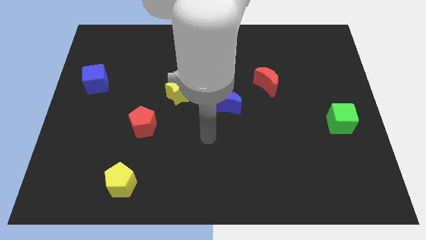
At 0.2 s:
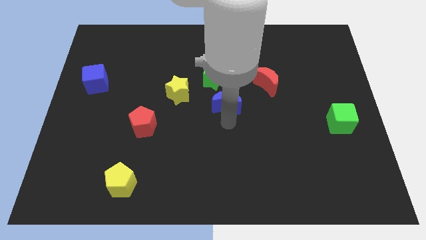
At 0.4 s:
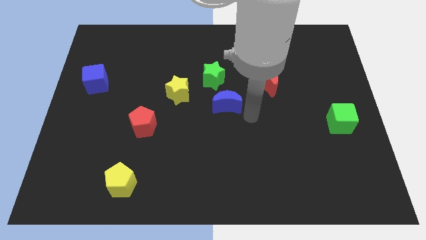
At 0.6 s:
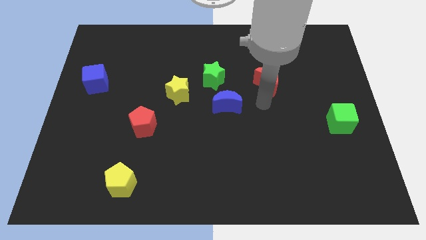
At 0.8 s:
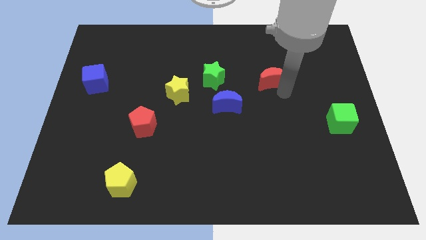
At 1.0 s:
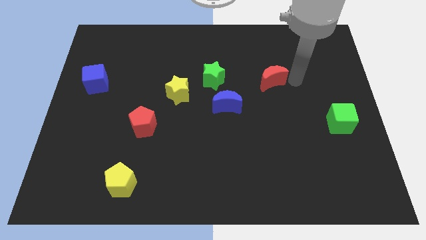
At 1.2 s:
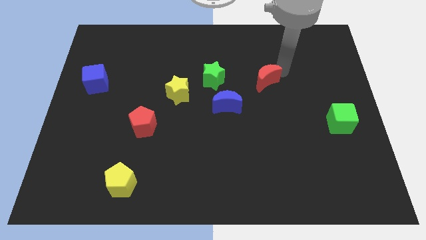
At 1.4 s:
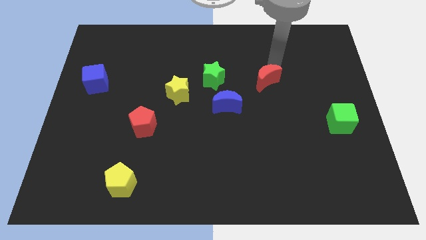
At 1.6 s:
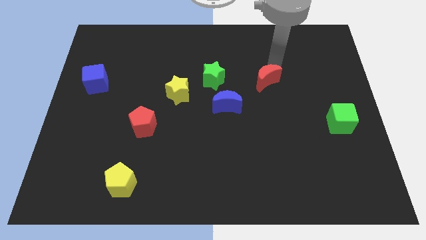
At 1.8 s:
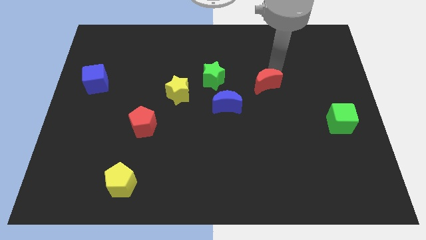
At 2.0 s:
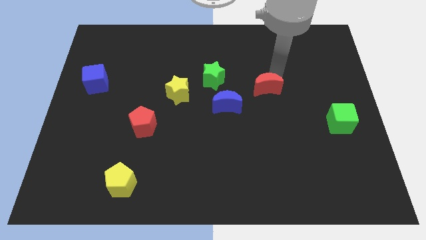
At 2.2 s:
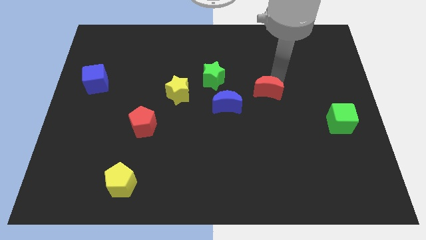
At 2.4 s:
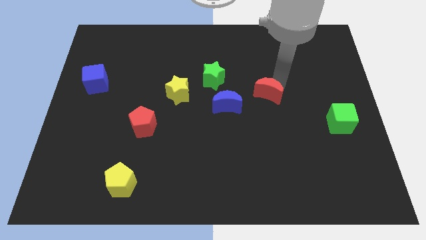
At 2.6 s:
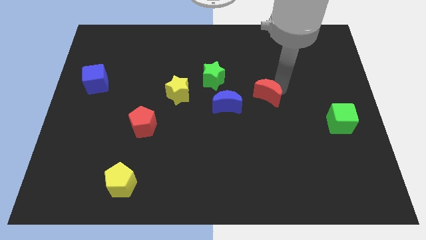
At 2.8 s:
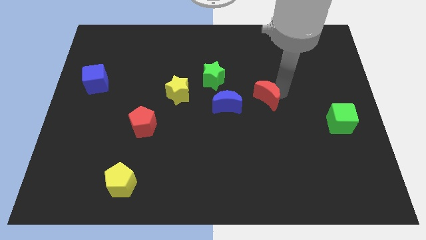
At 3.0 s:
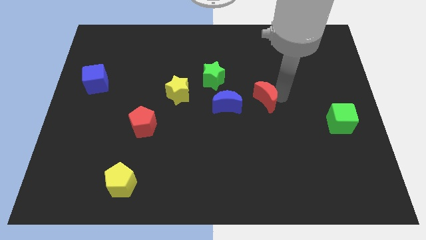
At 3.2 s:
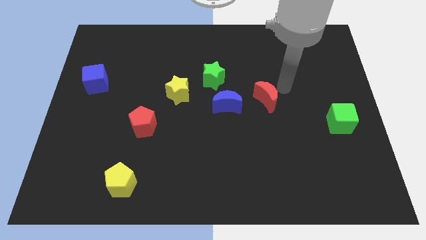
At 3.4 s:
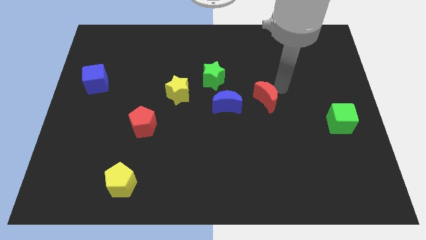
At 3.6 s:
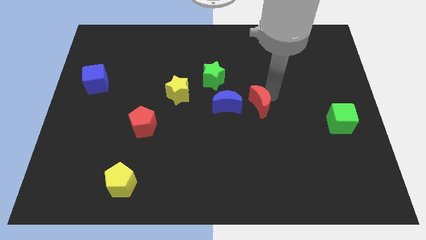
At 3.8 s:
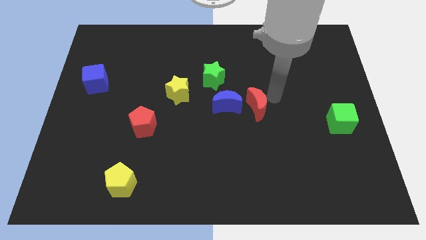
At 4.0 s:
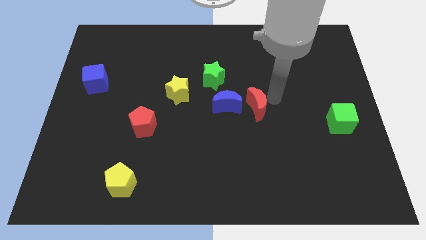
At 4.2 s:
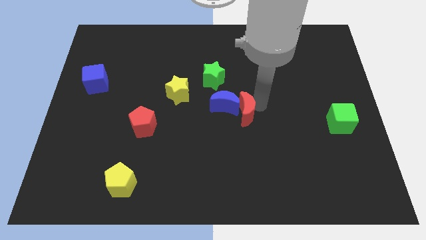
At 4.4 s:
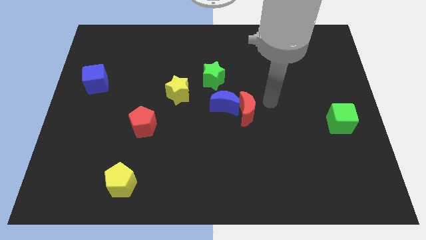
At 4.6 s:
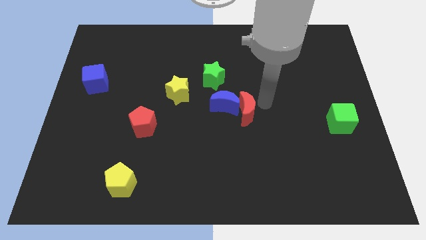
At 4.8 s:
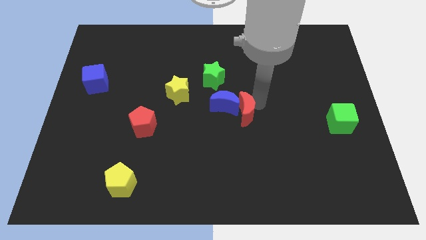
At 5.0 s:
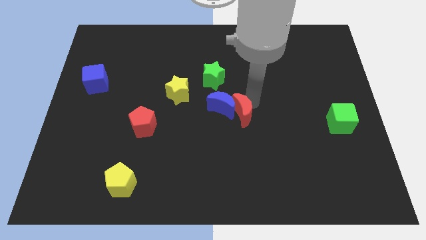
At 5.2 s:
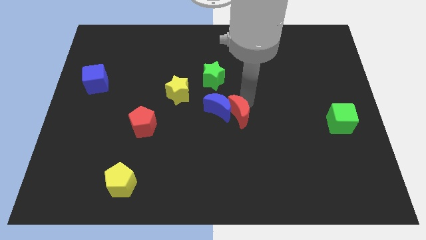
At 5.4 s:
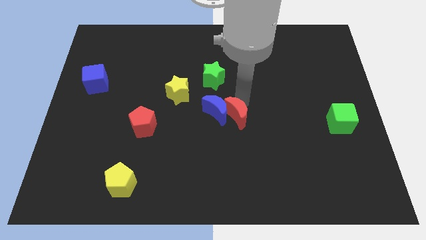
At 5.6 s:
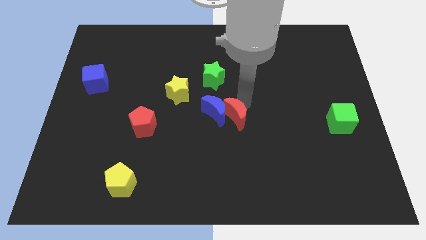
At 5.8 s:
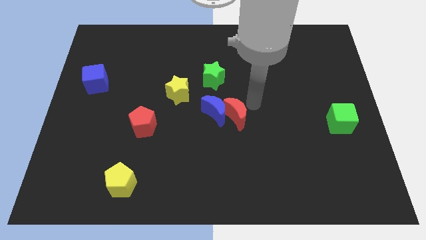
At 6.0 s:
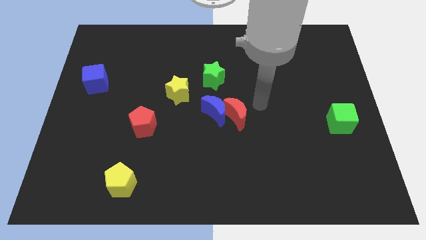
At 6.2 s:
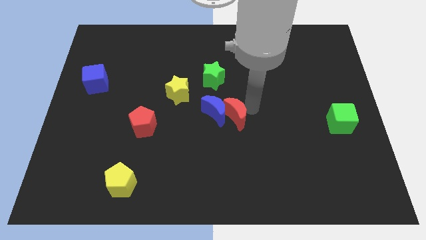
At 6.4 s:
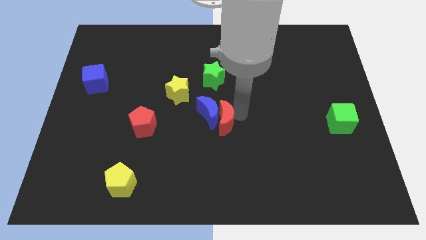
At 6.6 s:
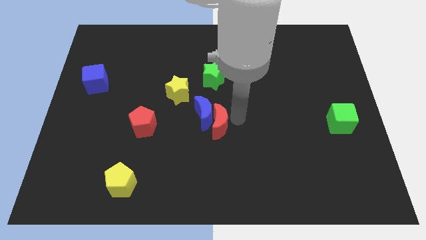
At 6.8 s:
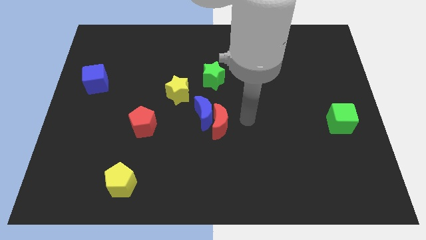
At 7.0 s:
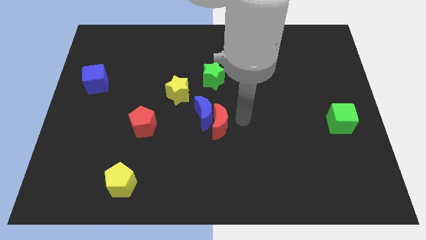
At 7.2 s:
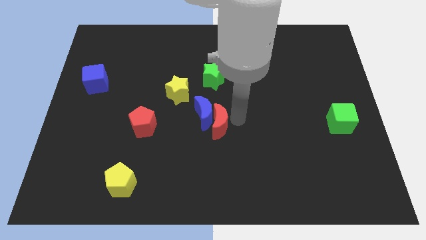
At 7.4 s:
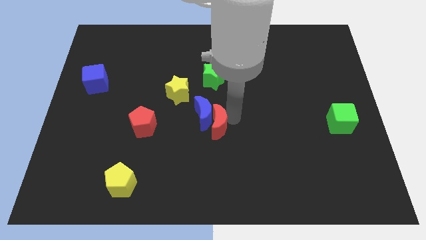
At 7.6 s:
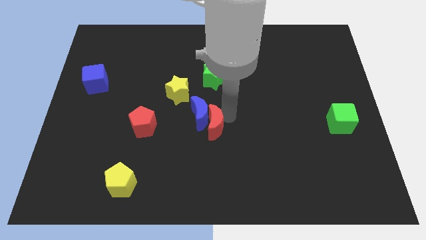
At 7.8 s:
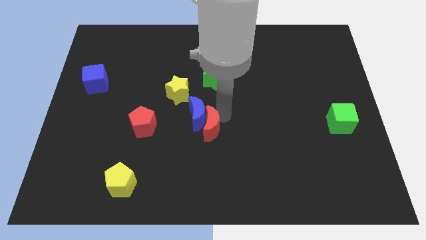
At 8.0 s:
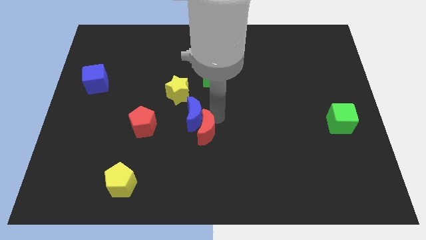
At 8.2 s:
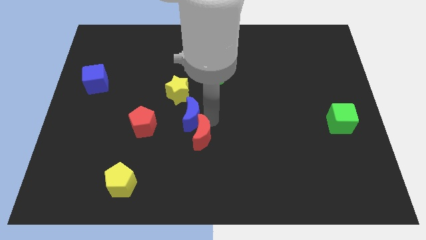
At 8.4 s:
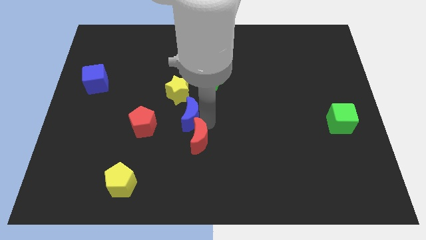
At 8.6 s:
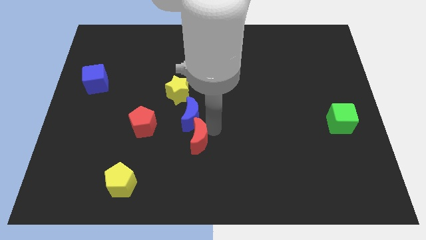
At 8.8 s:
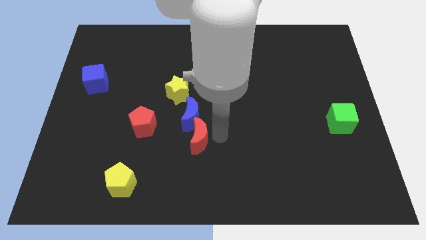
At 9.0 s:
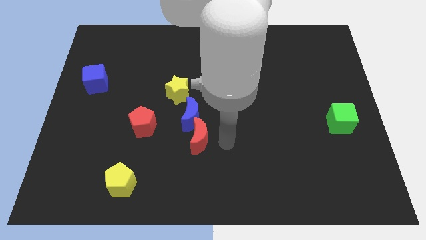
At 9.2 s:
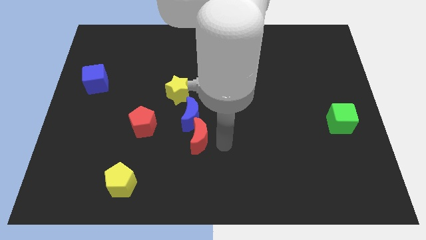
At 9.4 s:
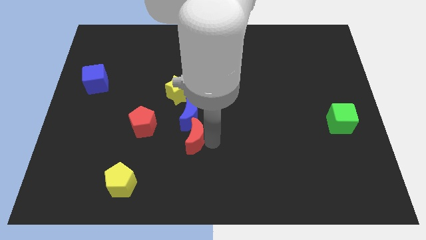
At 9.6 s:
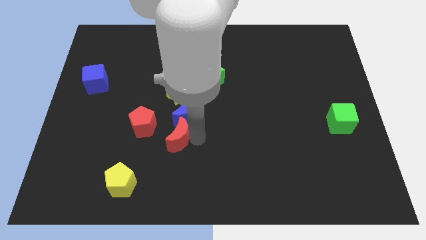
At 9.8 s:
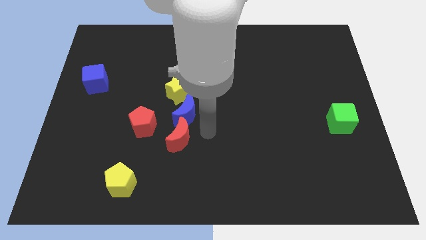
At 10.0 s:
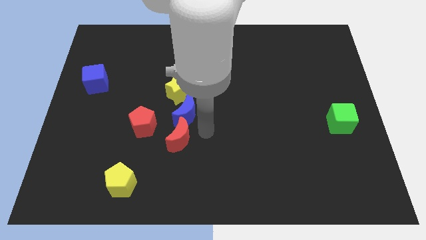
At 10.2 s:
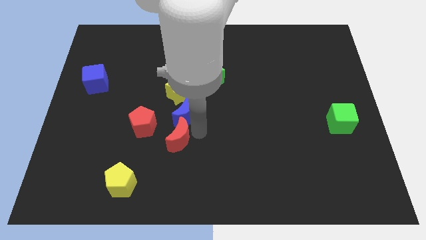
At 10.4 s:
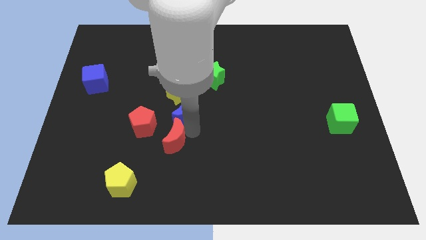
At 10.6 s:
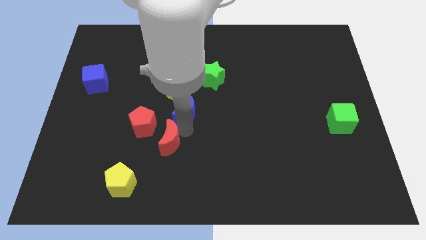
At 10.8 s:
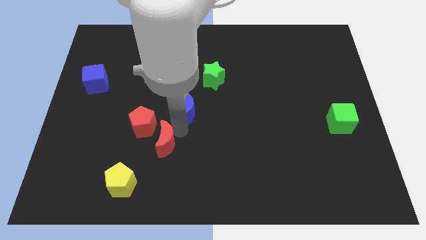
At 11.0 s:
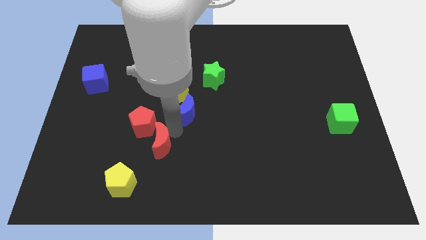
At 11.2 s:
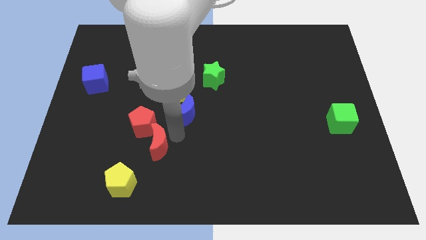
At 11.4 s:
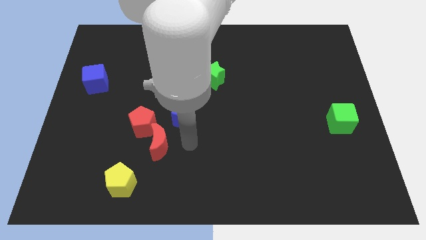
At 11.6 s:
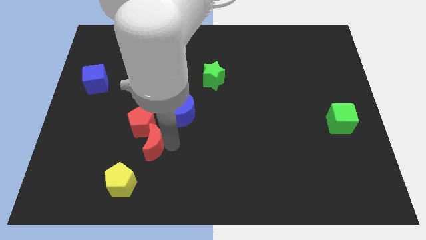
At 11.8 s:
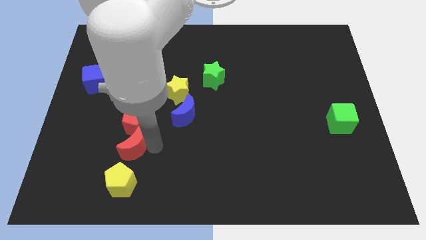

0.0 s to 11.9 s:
push the red moon diagonally down and to the left of the red pentagon

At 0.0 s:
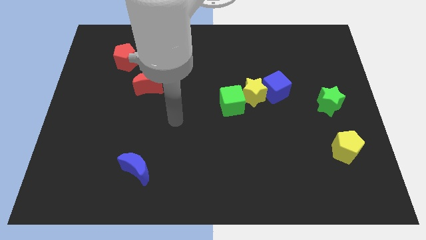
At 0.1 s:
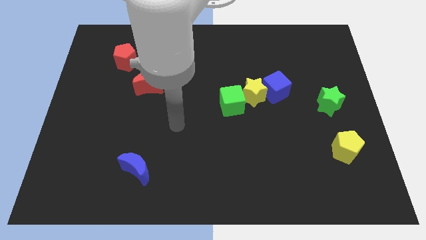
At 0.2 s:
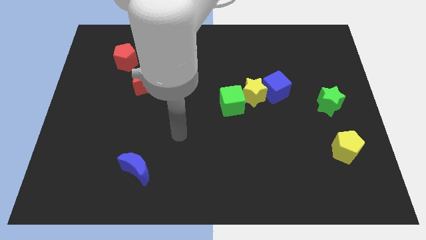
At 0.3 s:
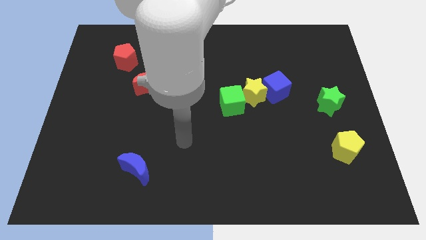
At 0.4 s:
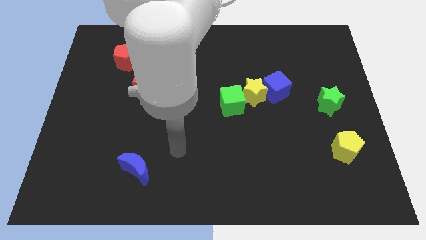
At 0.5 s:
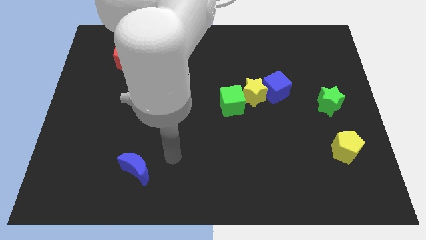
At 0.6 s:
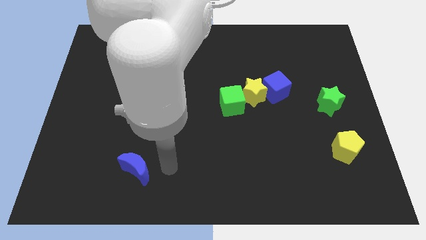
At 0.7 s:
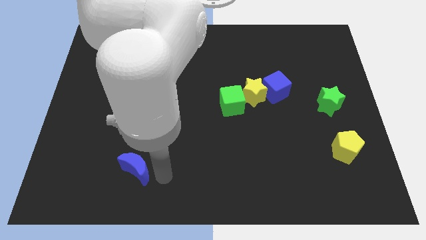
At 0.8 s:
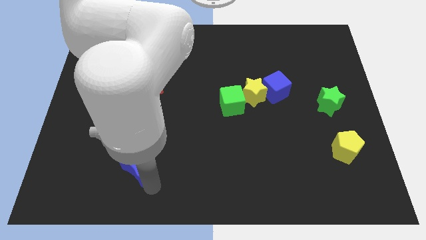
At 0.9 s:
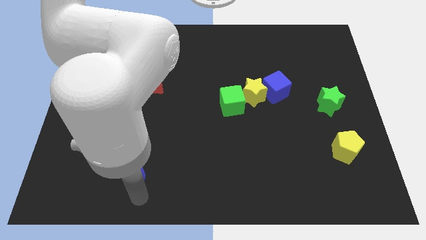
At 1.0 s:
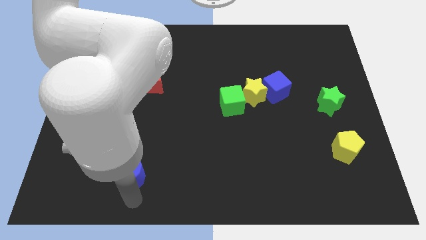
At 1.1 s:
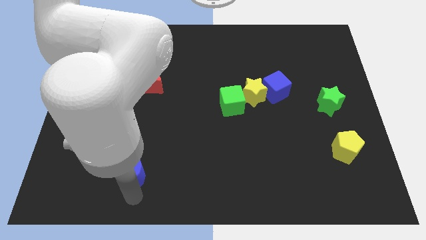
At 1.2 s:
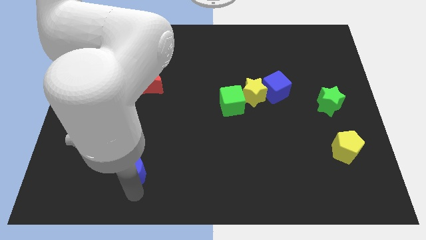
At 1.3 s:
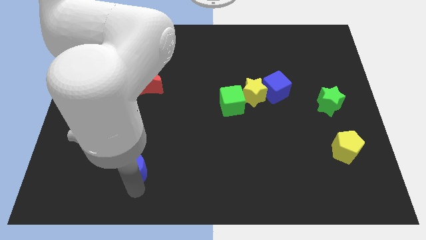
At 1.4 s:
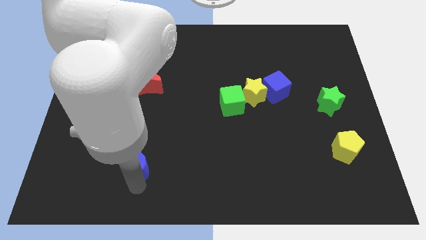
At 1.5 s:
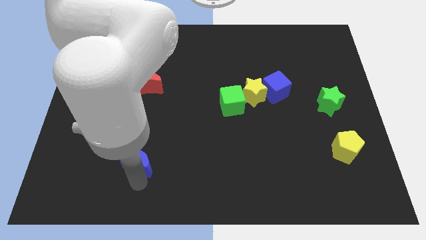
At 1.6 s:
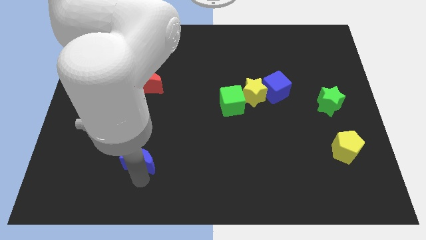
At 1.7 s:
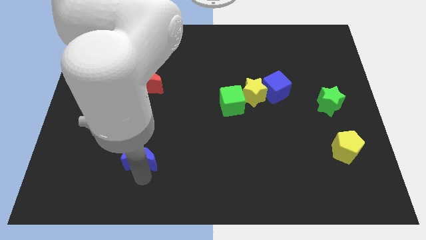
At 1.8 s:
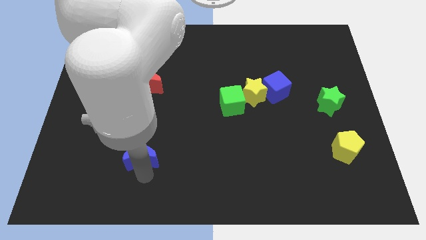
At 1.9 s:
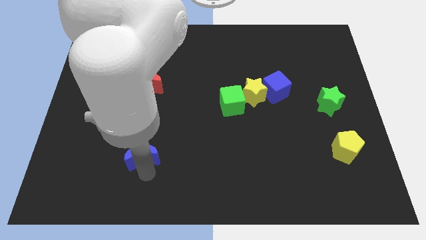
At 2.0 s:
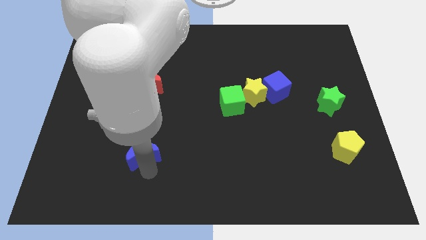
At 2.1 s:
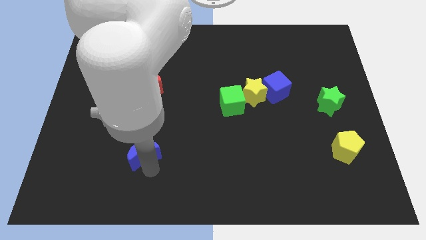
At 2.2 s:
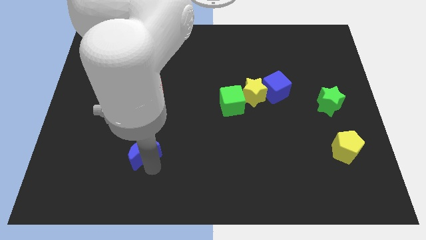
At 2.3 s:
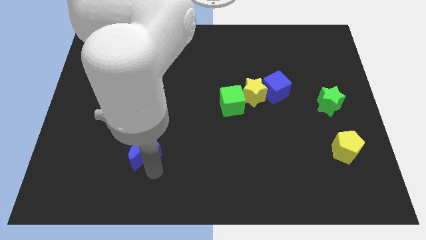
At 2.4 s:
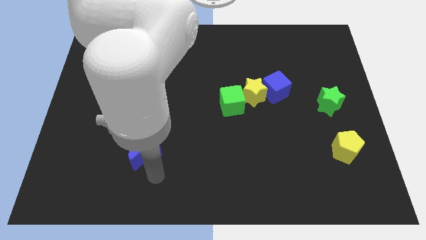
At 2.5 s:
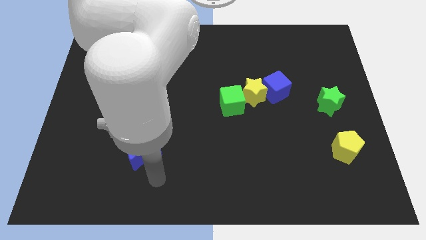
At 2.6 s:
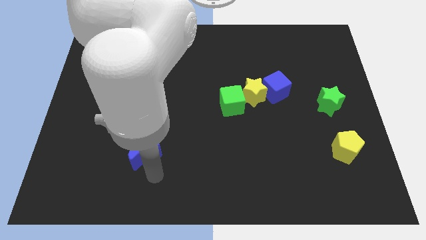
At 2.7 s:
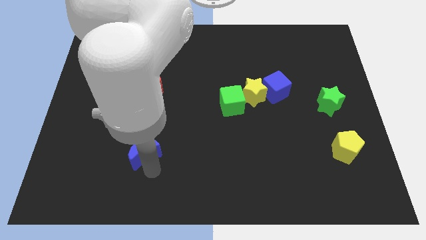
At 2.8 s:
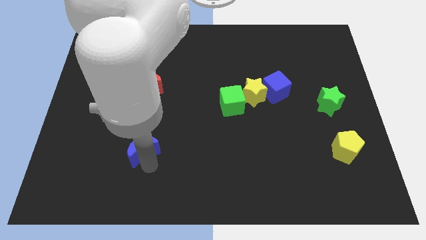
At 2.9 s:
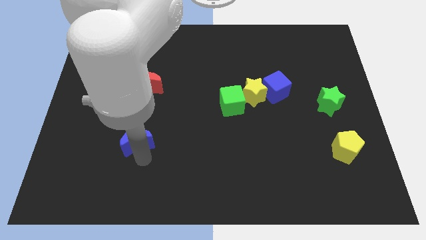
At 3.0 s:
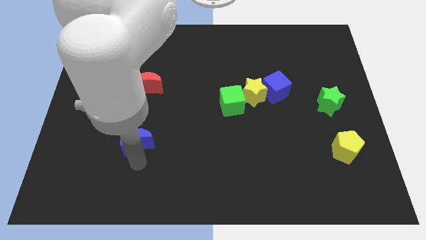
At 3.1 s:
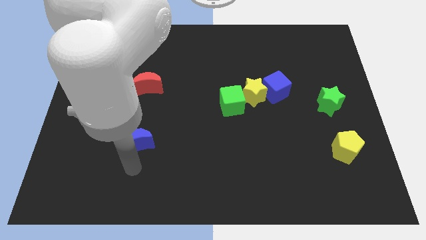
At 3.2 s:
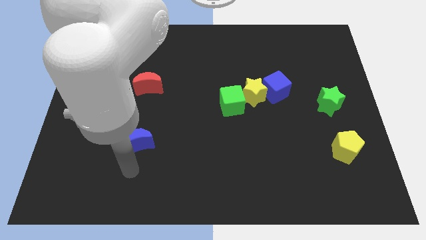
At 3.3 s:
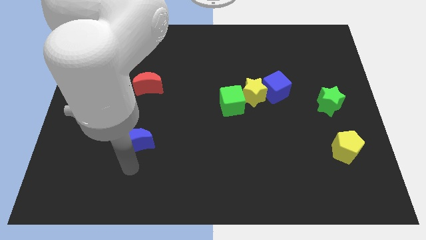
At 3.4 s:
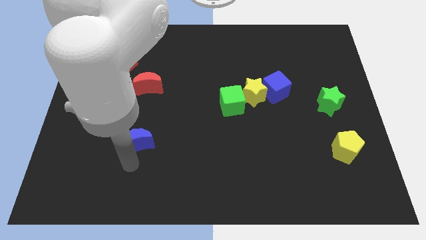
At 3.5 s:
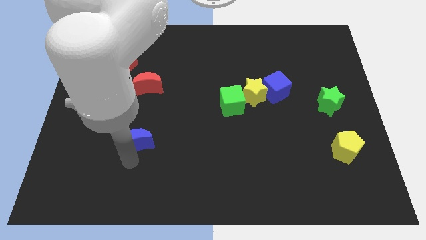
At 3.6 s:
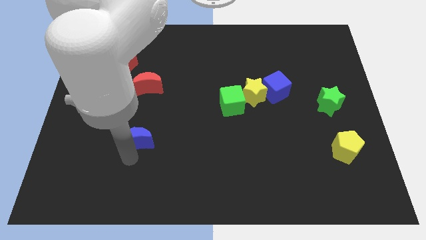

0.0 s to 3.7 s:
put the blue moon to the bottom side of the red moon
